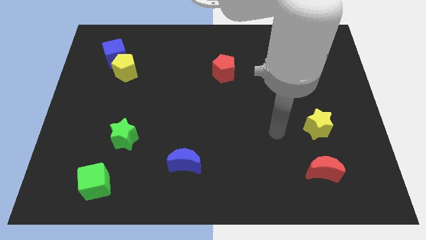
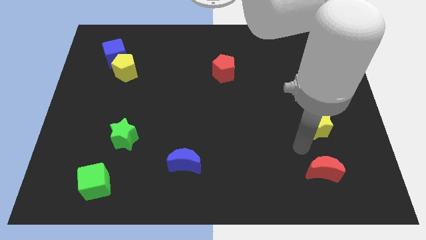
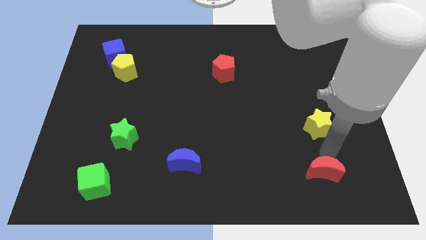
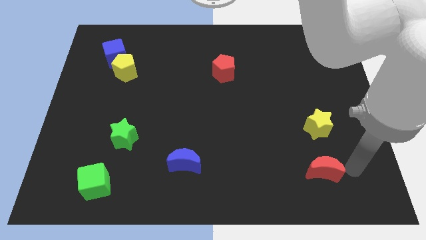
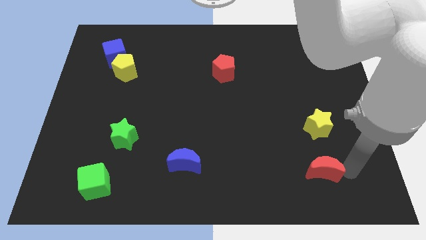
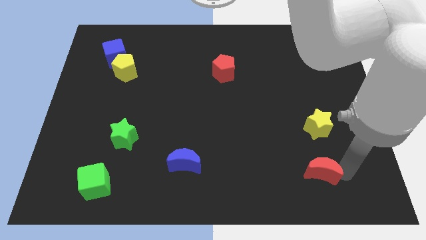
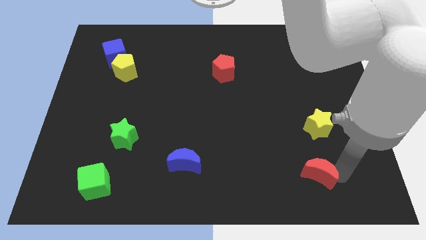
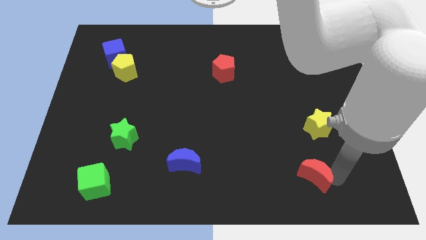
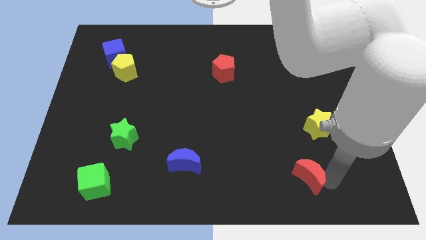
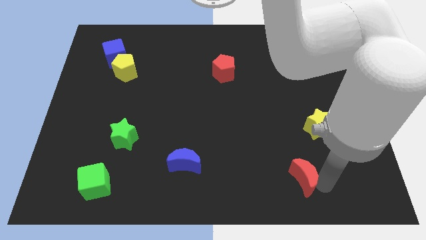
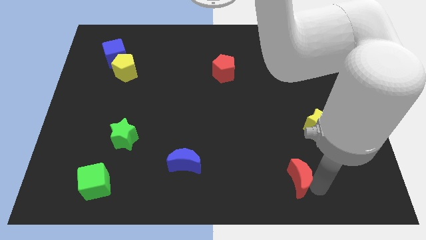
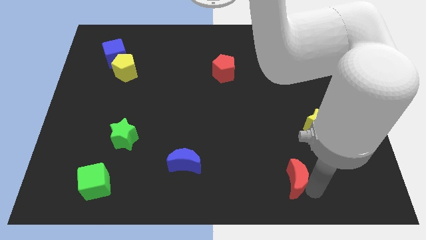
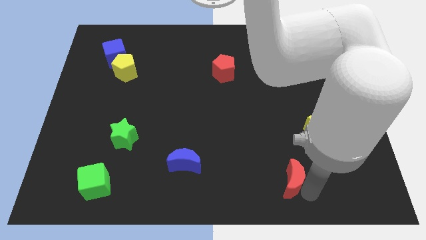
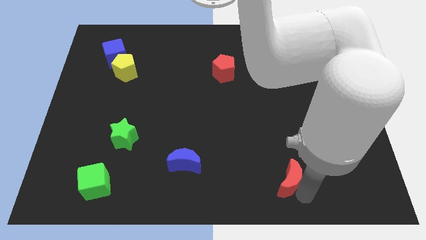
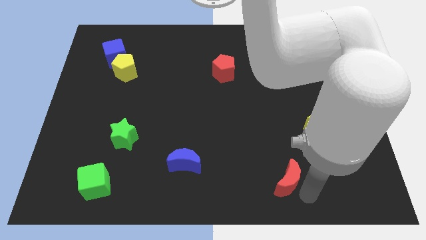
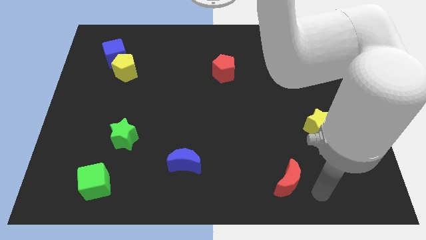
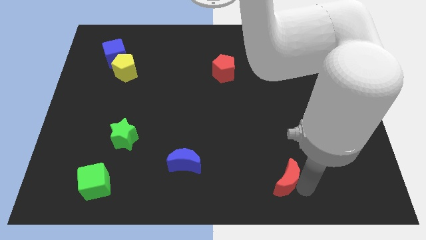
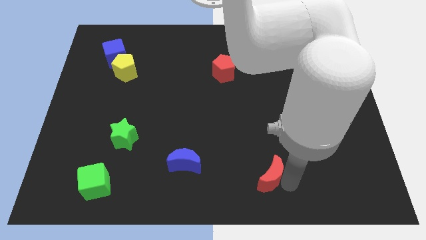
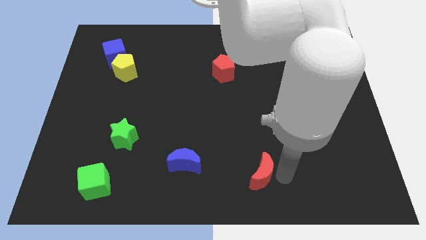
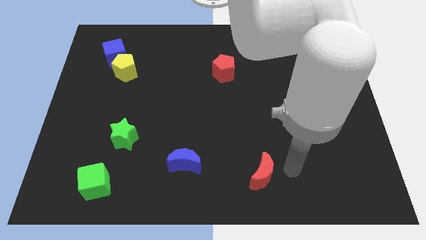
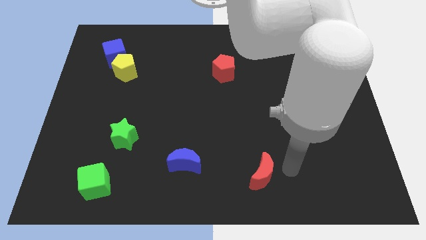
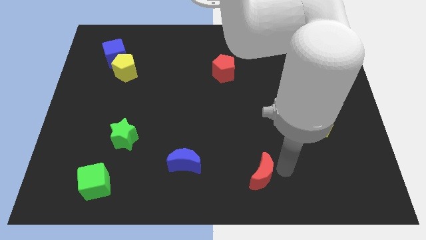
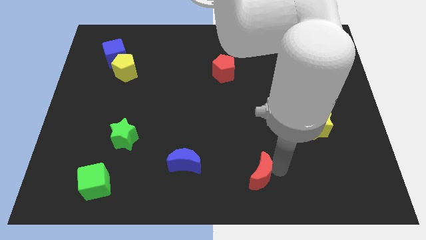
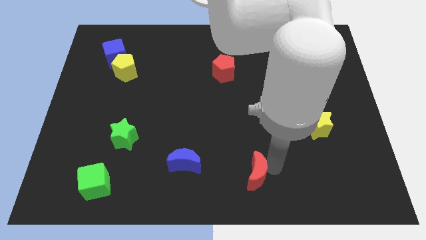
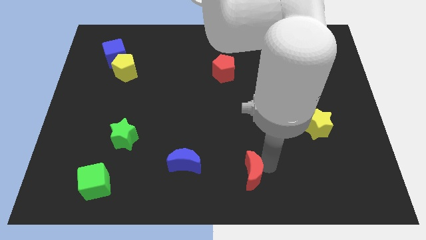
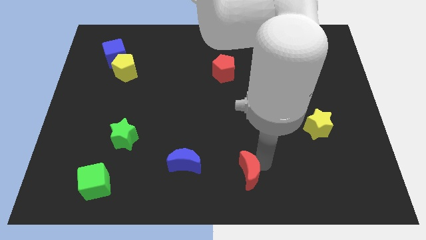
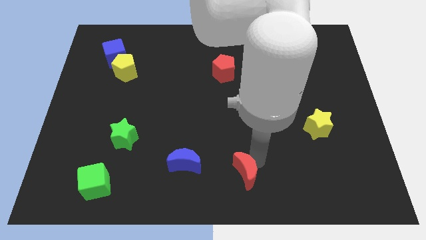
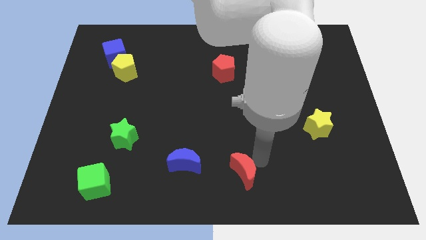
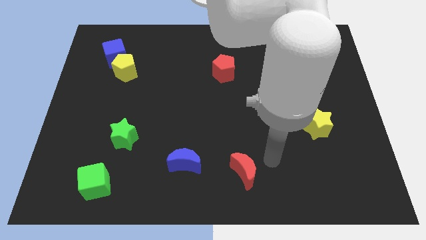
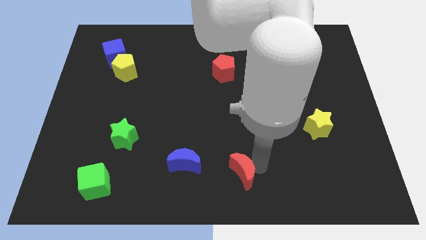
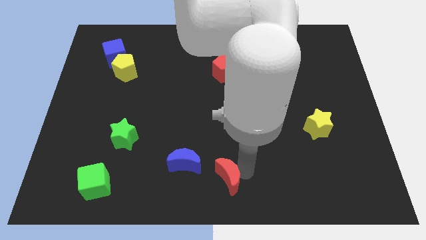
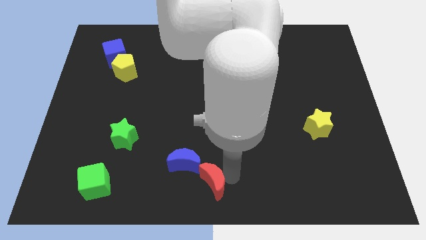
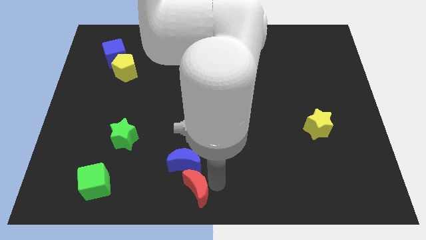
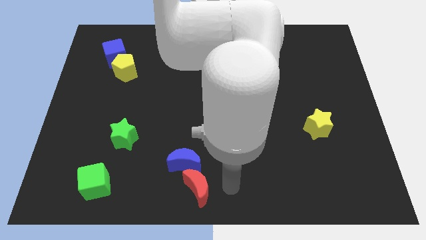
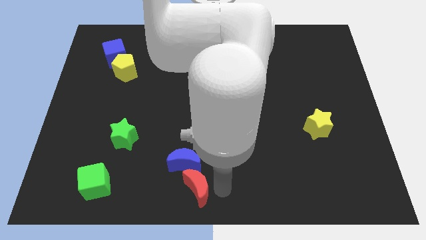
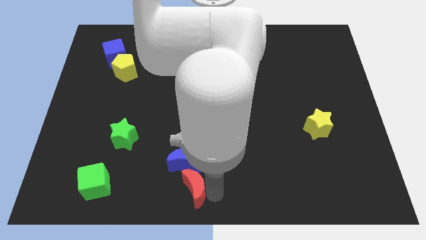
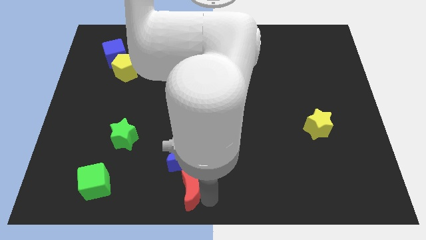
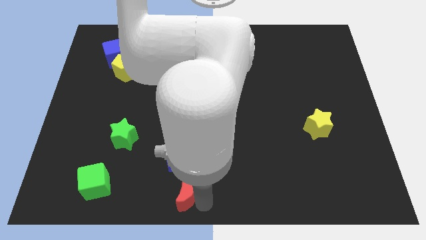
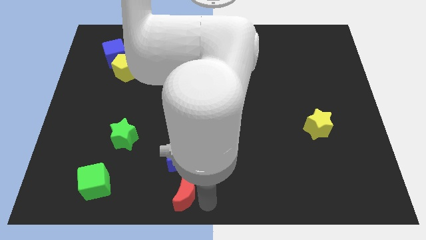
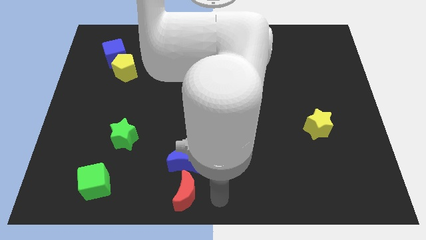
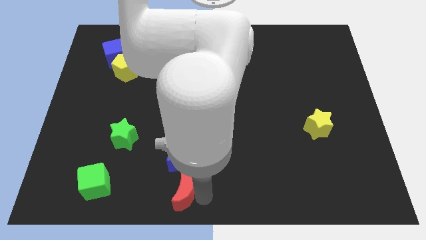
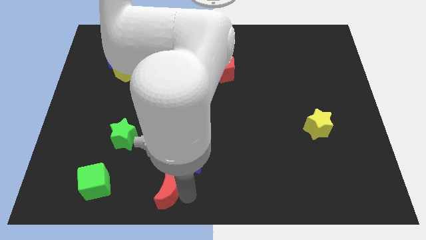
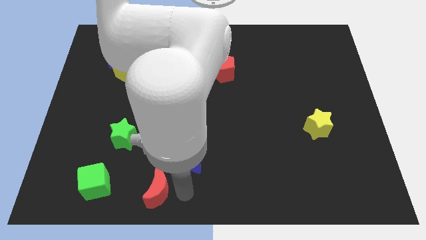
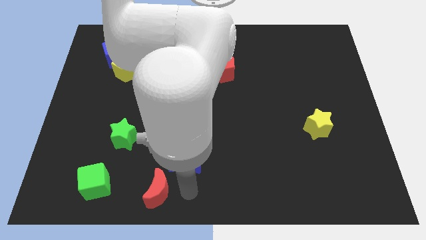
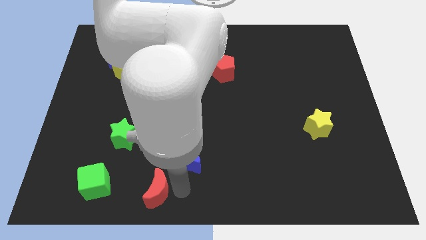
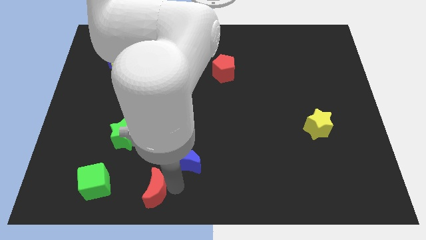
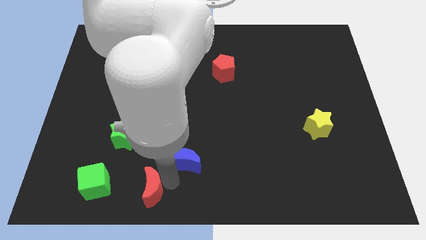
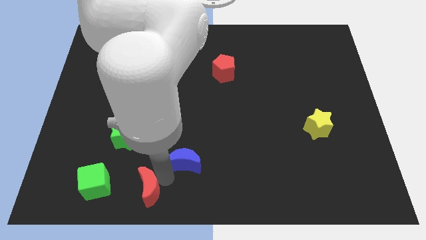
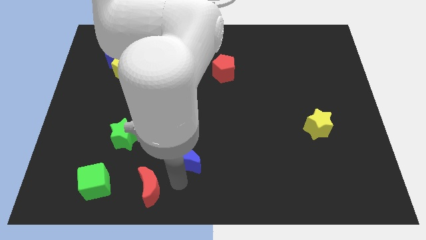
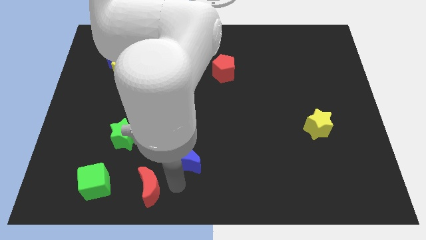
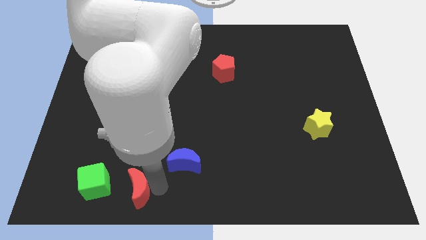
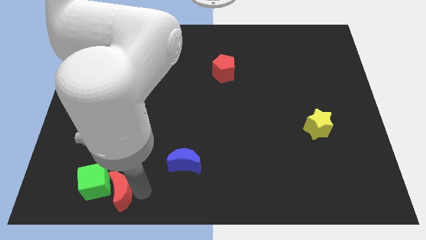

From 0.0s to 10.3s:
move the red moon close to the green cube

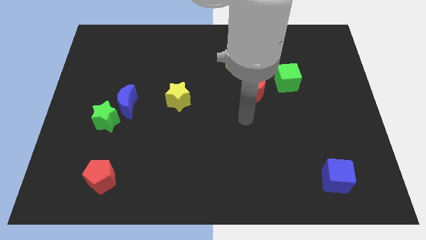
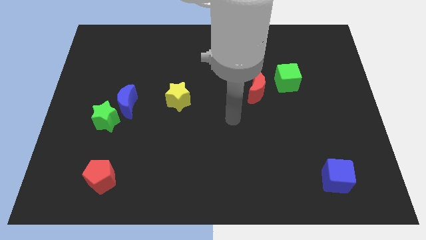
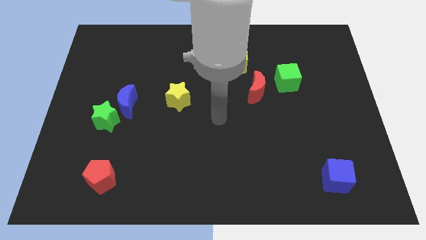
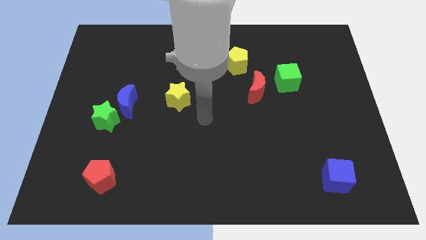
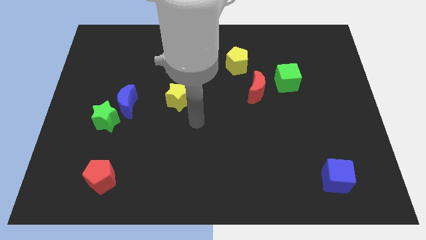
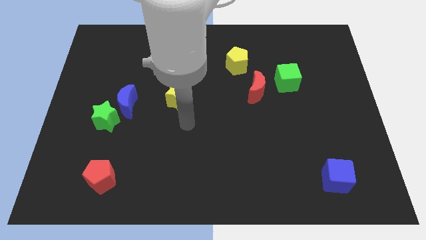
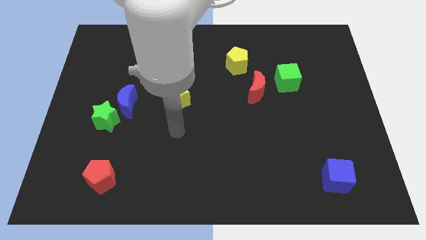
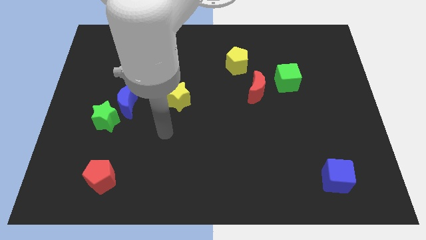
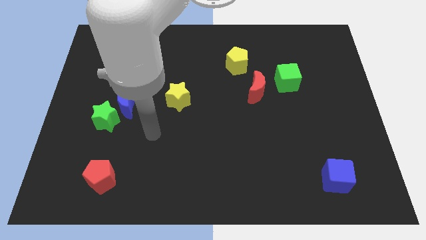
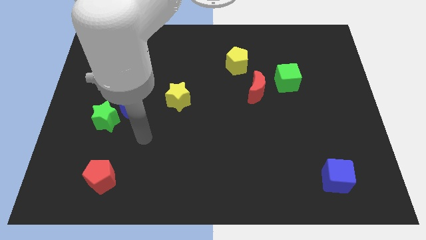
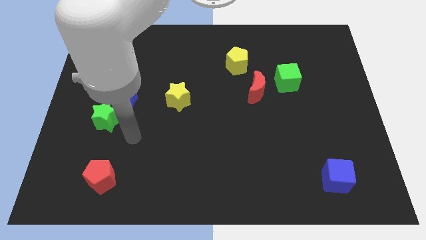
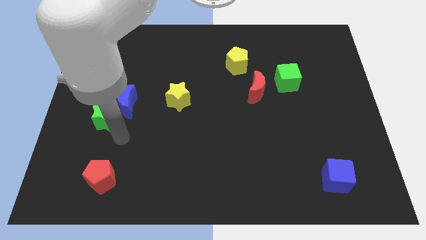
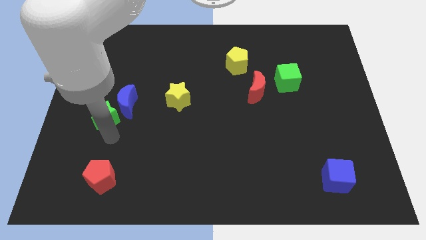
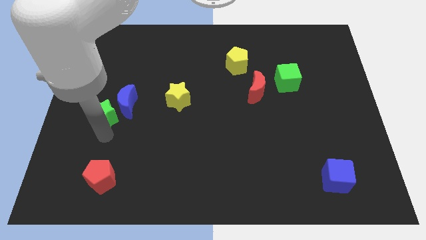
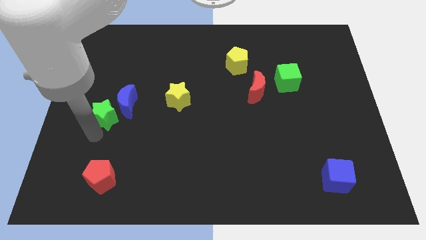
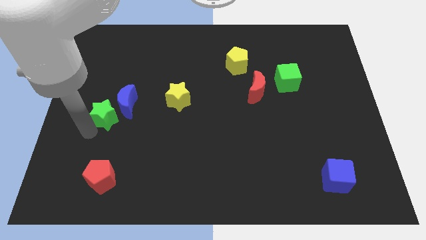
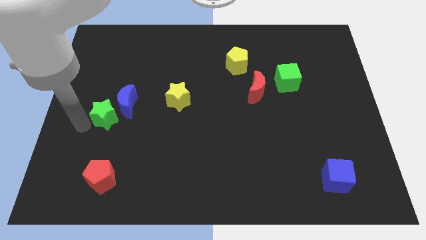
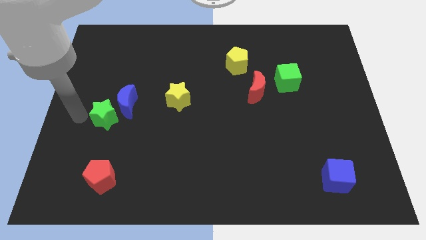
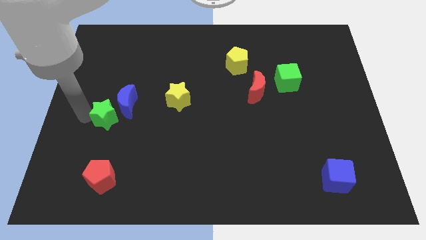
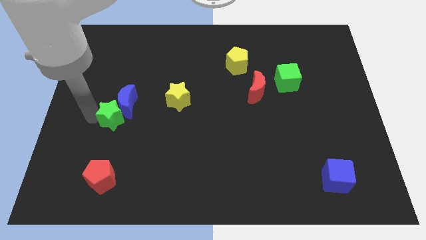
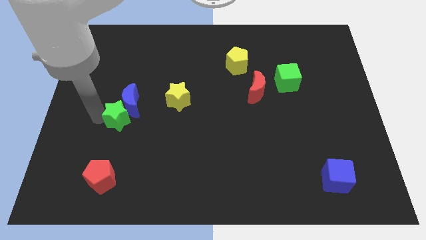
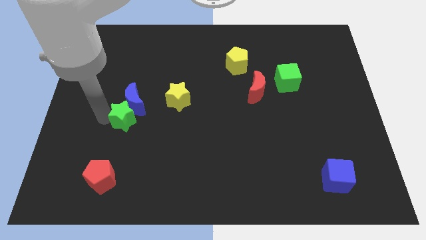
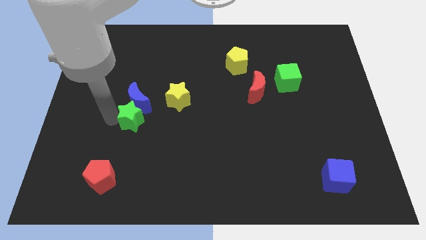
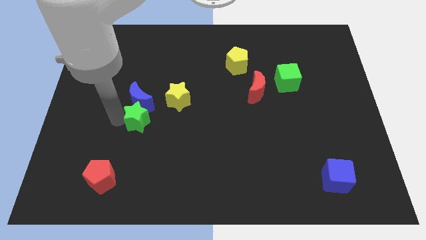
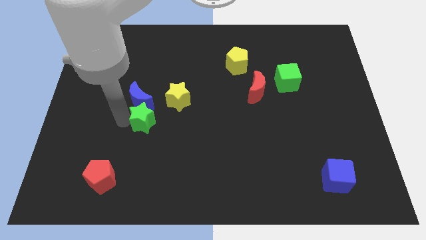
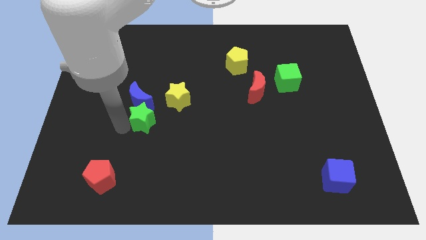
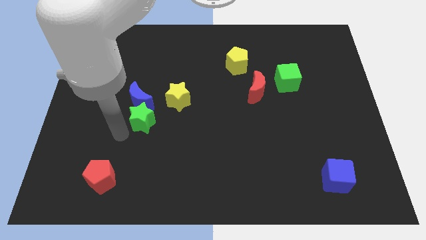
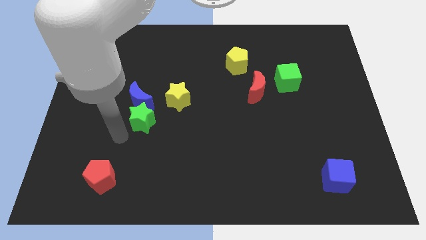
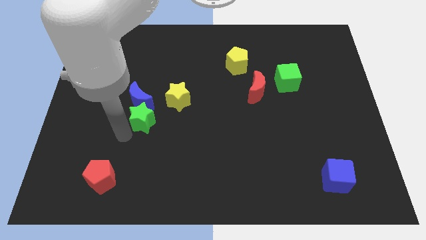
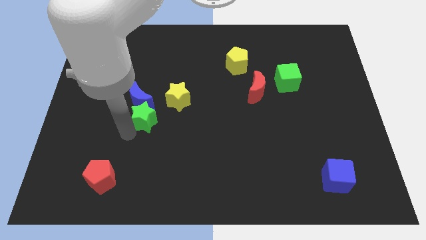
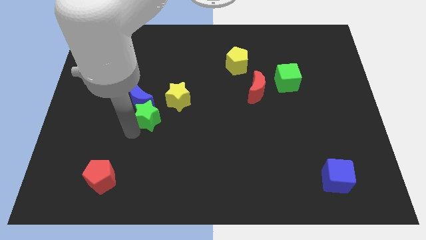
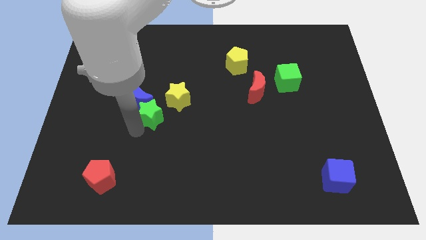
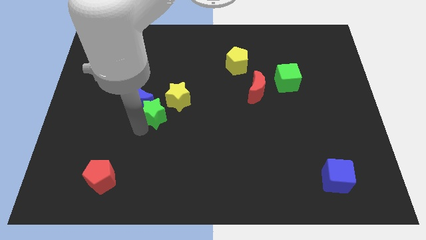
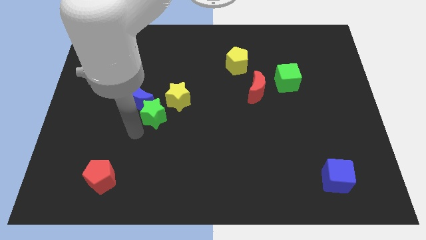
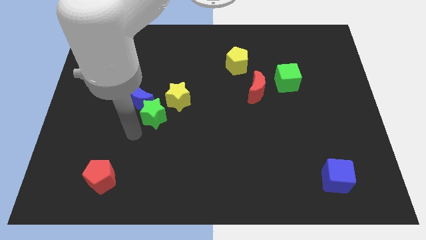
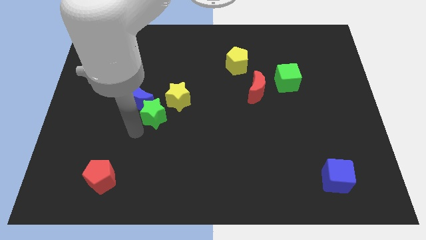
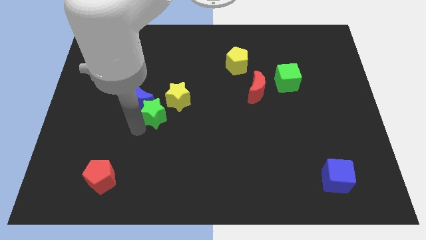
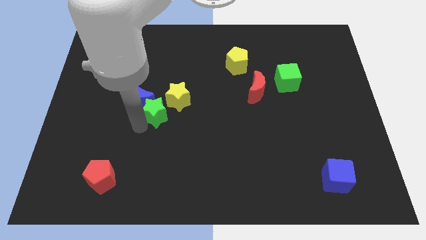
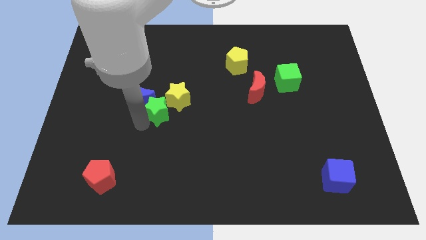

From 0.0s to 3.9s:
move the green star next to the yellow star
